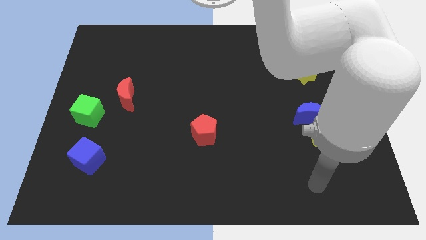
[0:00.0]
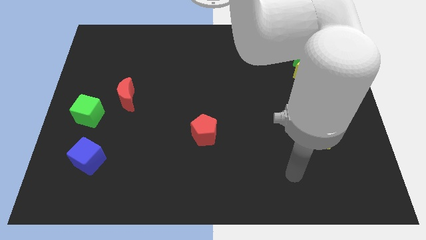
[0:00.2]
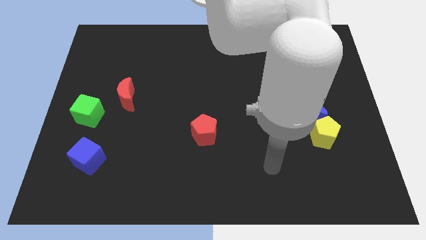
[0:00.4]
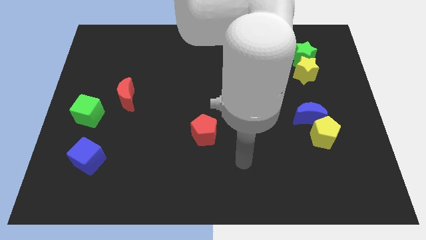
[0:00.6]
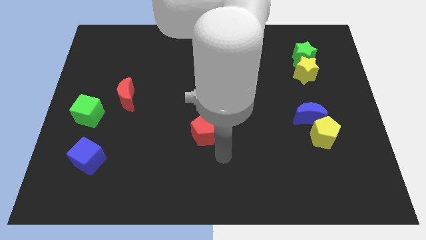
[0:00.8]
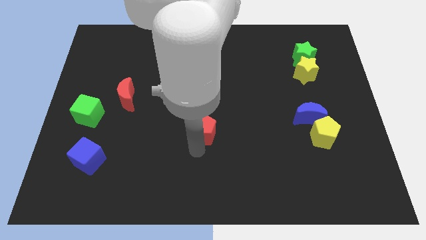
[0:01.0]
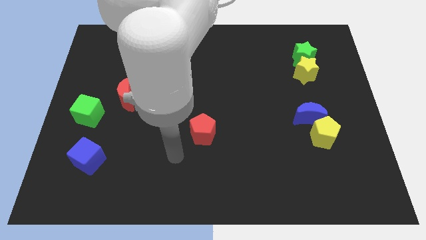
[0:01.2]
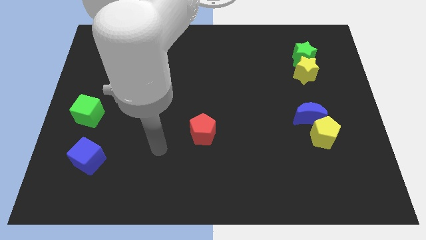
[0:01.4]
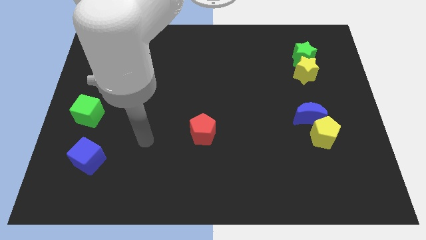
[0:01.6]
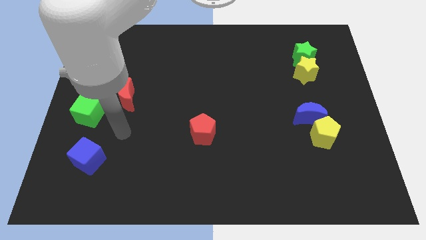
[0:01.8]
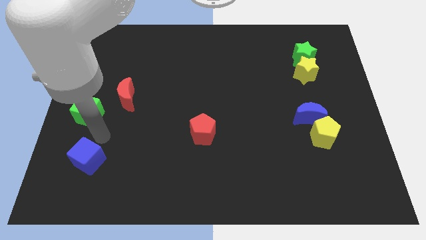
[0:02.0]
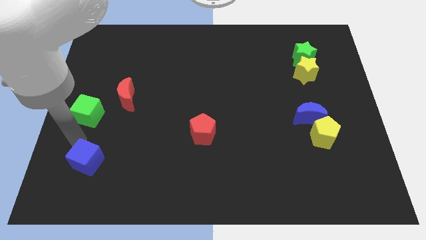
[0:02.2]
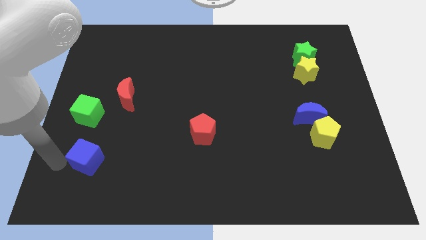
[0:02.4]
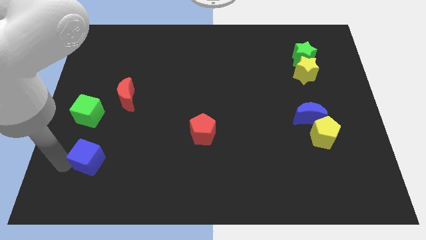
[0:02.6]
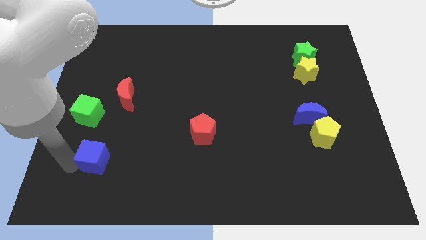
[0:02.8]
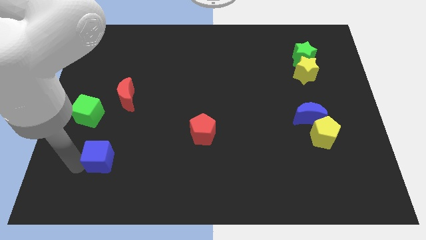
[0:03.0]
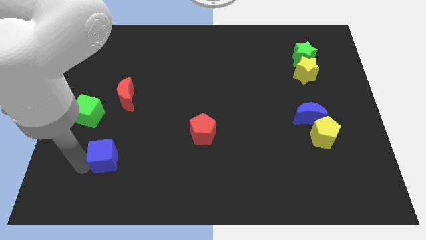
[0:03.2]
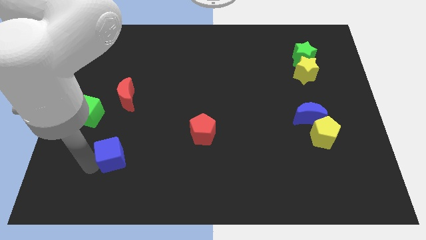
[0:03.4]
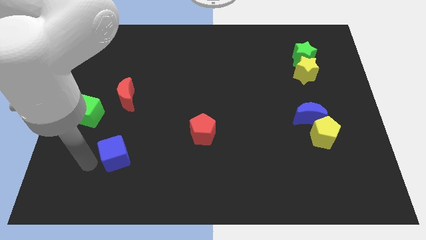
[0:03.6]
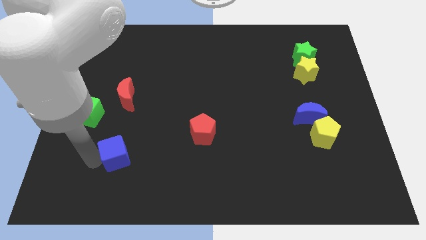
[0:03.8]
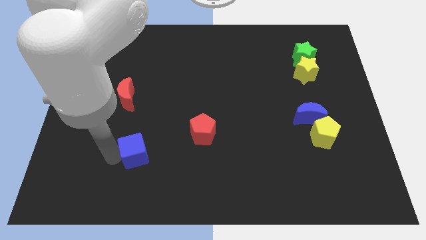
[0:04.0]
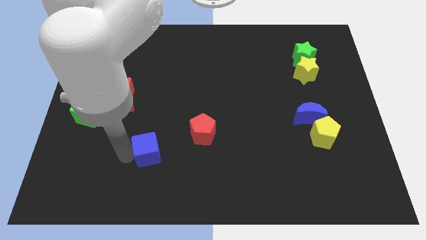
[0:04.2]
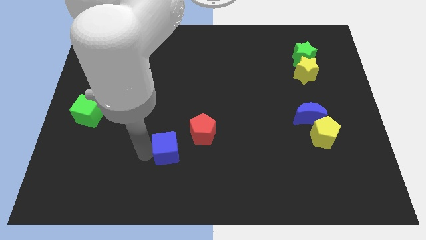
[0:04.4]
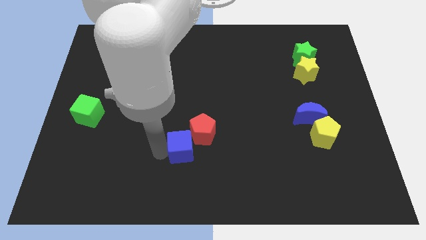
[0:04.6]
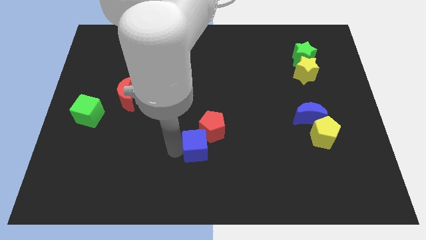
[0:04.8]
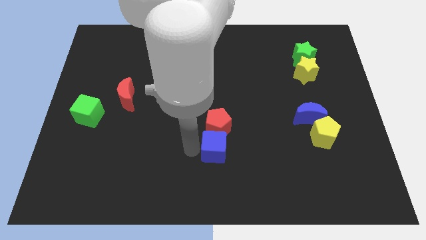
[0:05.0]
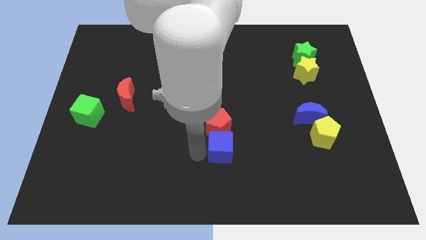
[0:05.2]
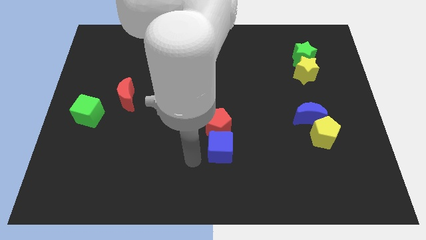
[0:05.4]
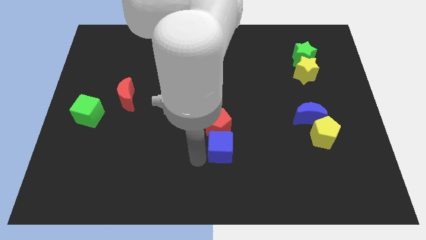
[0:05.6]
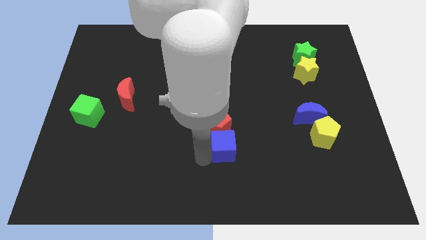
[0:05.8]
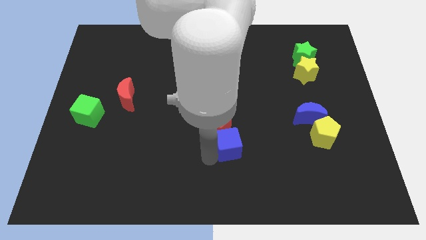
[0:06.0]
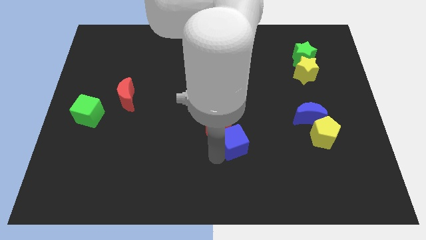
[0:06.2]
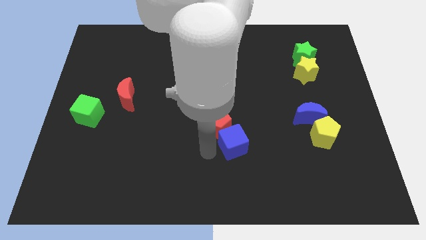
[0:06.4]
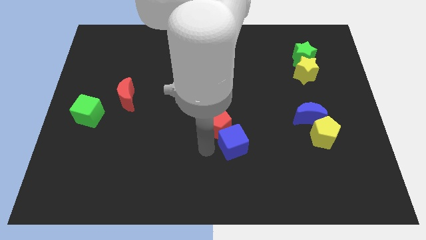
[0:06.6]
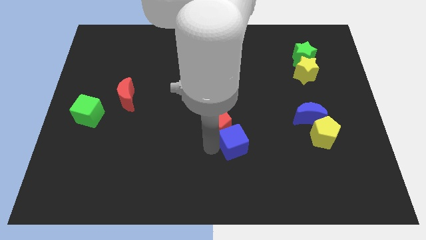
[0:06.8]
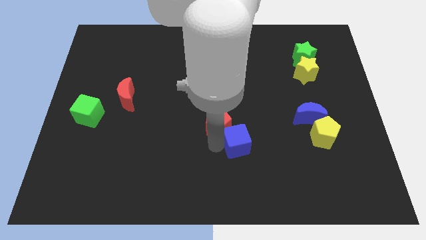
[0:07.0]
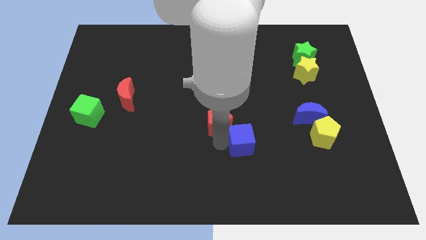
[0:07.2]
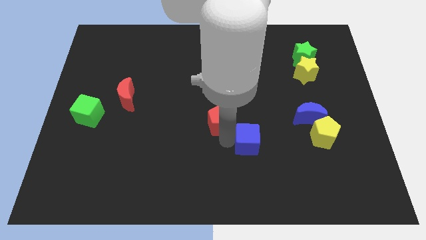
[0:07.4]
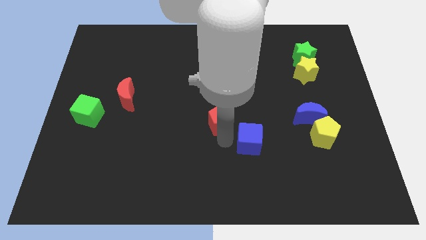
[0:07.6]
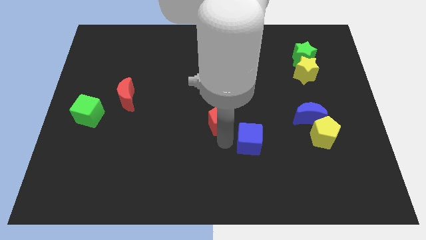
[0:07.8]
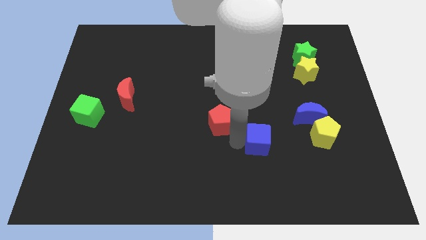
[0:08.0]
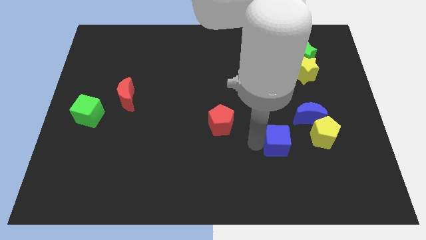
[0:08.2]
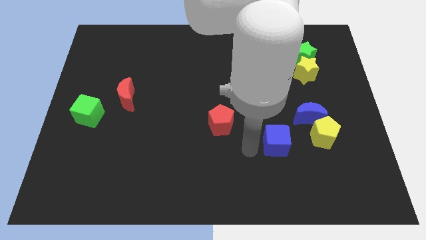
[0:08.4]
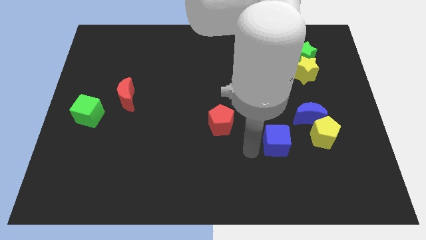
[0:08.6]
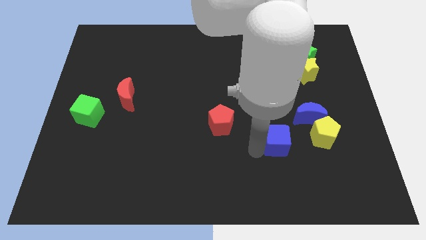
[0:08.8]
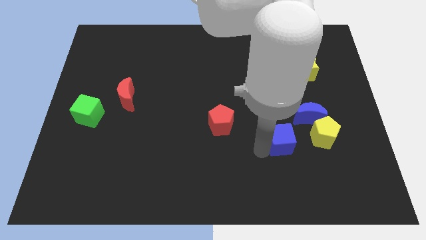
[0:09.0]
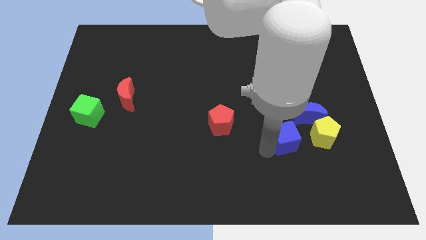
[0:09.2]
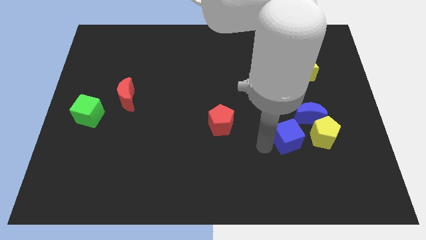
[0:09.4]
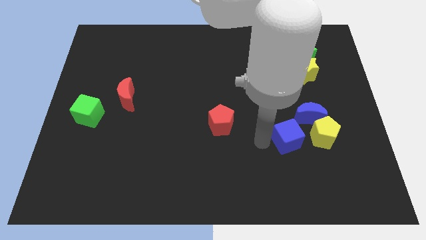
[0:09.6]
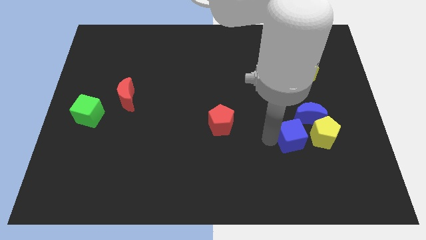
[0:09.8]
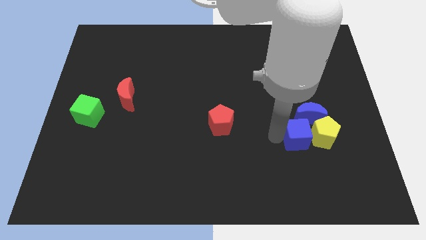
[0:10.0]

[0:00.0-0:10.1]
slide the blue cube next to the yellow pentagon

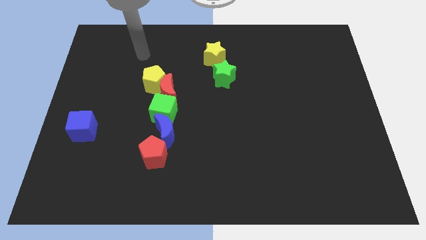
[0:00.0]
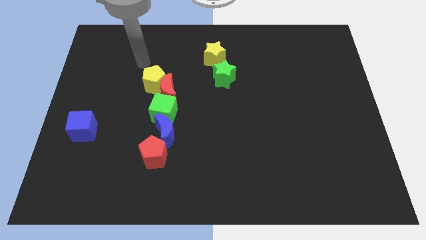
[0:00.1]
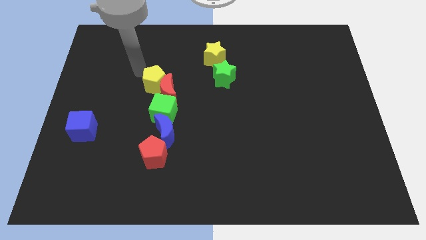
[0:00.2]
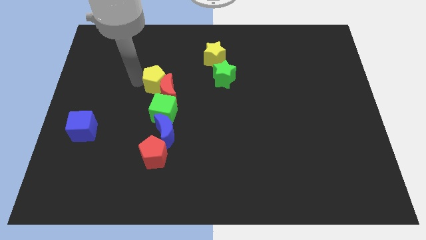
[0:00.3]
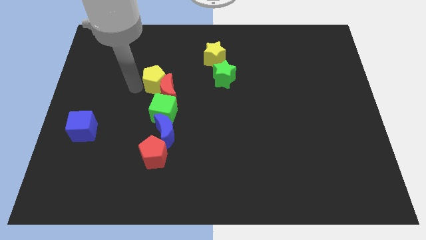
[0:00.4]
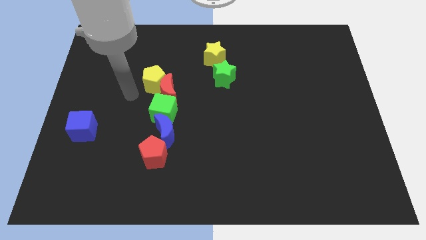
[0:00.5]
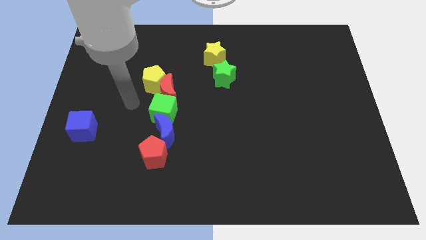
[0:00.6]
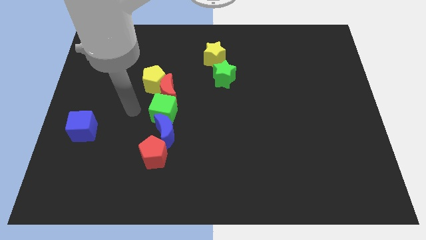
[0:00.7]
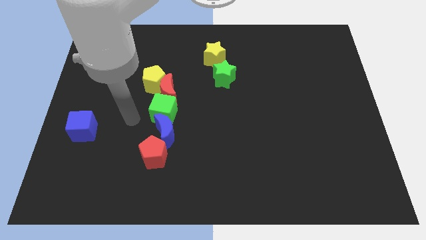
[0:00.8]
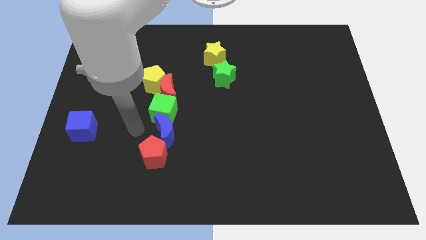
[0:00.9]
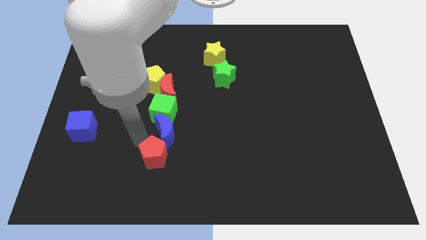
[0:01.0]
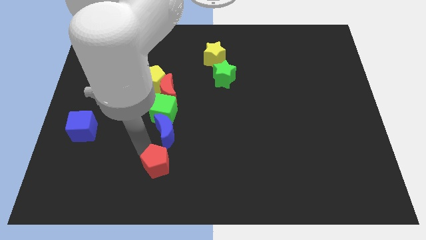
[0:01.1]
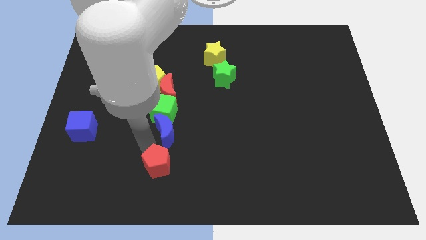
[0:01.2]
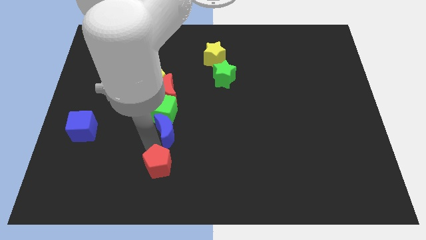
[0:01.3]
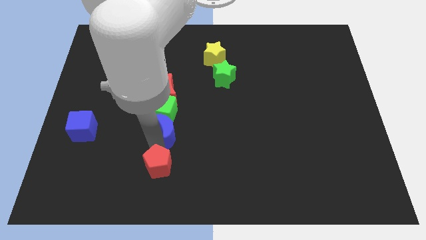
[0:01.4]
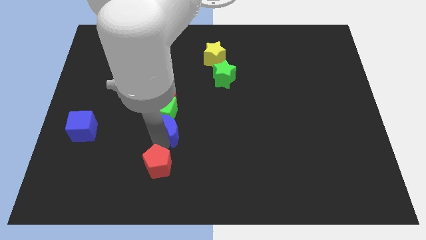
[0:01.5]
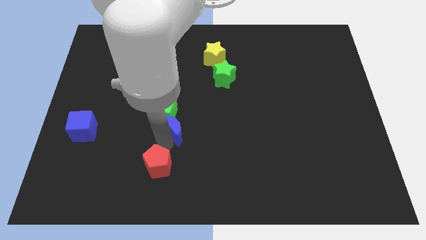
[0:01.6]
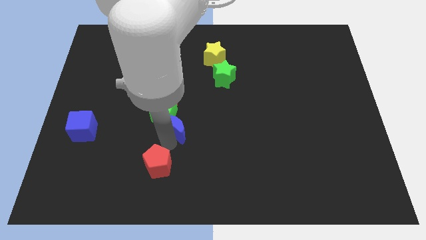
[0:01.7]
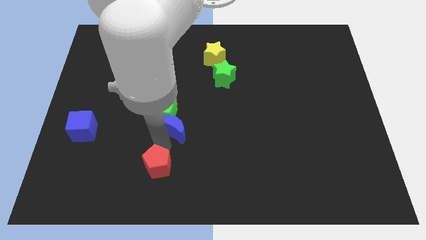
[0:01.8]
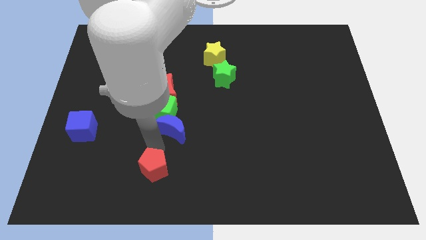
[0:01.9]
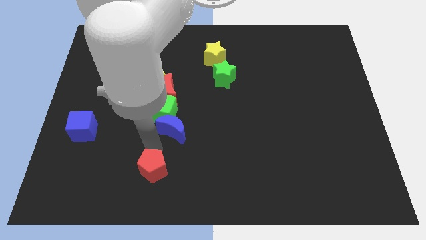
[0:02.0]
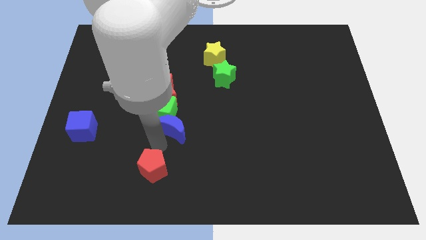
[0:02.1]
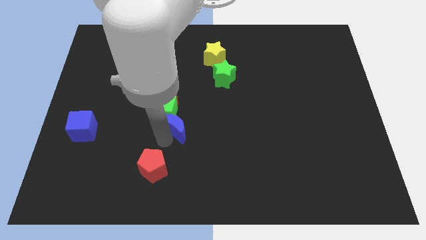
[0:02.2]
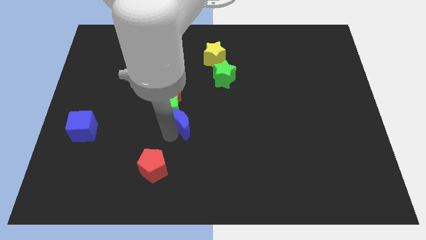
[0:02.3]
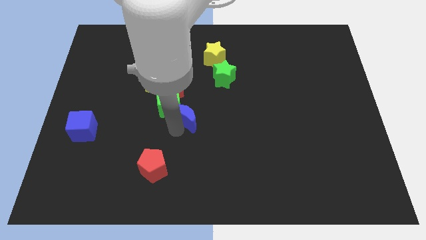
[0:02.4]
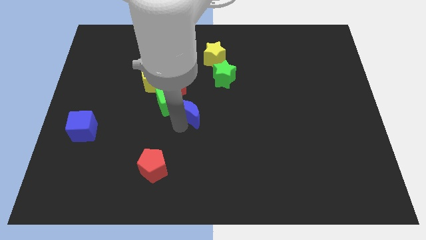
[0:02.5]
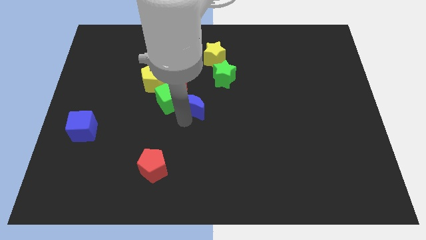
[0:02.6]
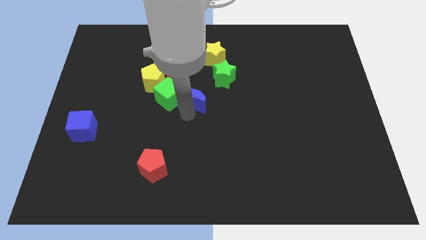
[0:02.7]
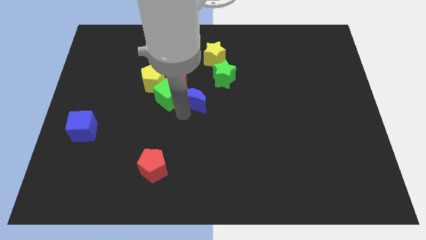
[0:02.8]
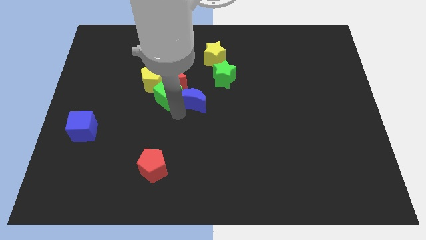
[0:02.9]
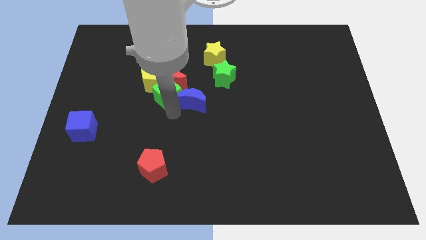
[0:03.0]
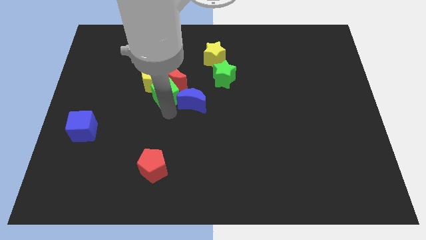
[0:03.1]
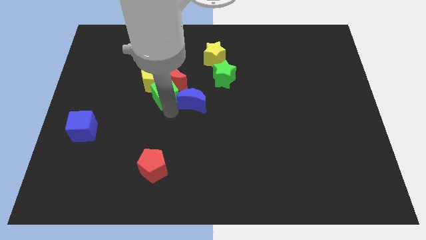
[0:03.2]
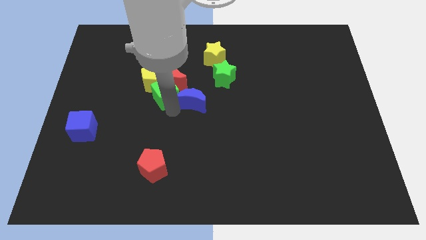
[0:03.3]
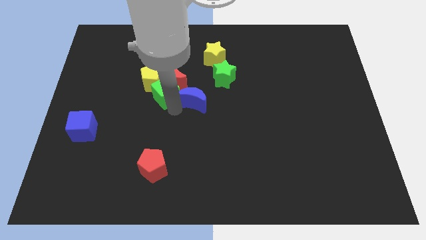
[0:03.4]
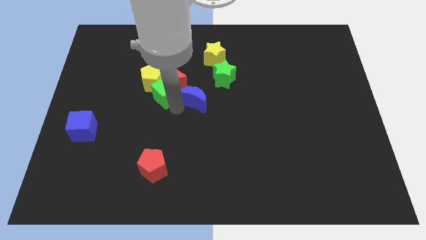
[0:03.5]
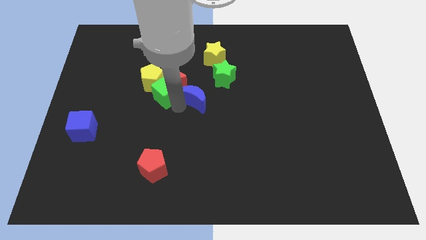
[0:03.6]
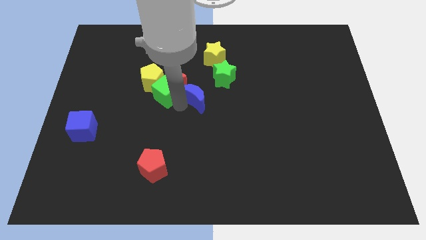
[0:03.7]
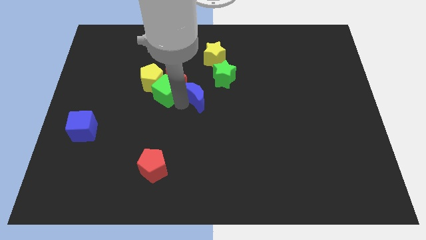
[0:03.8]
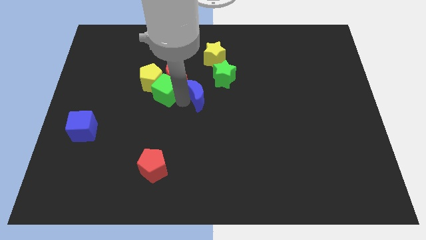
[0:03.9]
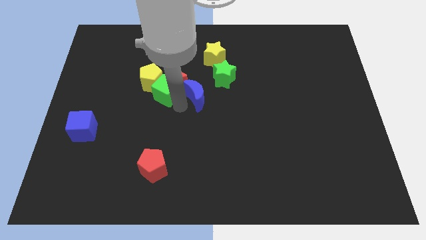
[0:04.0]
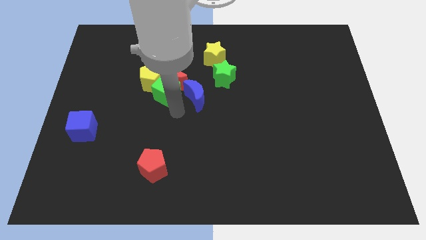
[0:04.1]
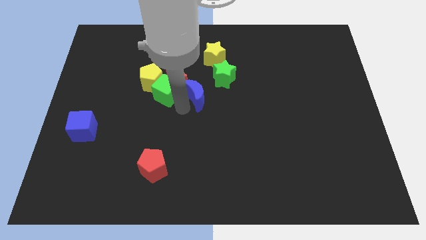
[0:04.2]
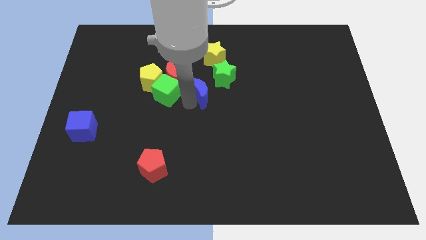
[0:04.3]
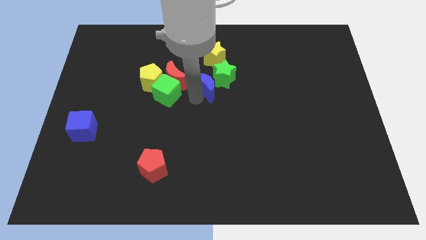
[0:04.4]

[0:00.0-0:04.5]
push the blue moon towards the green star
